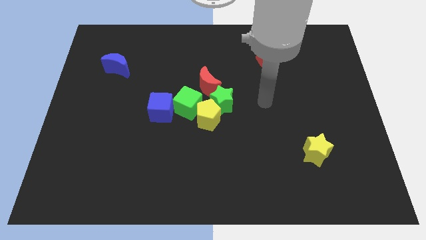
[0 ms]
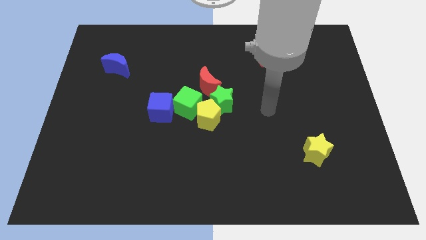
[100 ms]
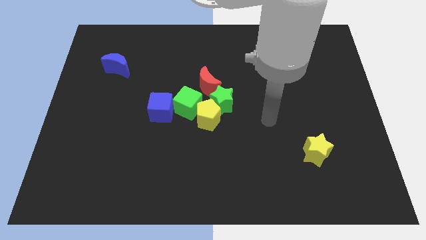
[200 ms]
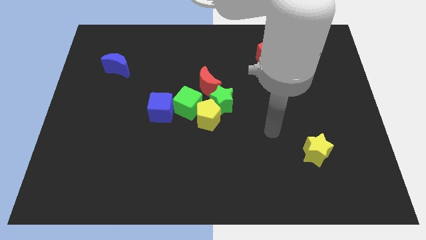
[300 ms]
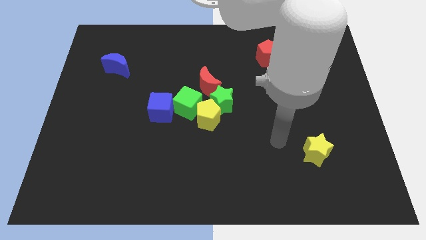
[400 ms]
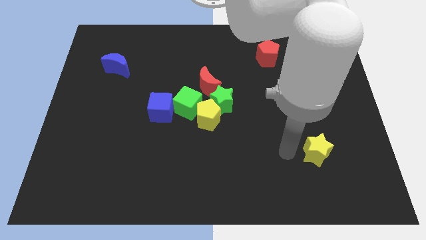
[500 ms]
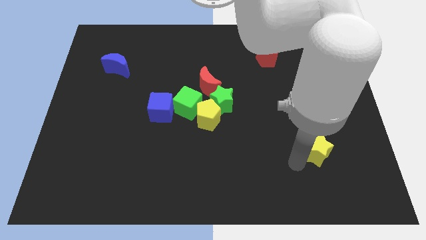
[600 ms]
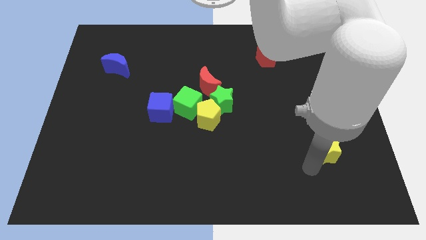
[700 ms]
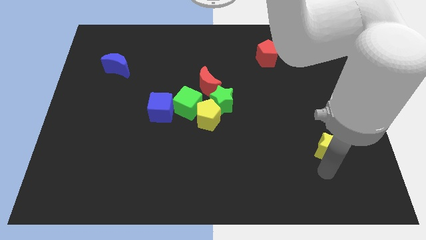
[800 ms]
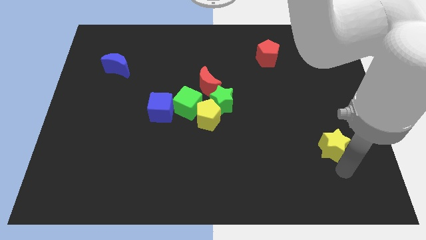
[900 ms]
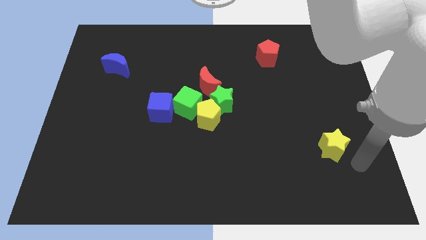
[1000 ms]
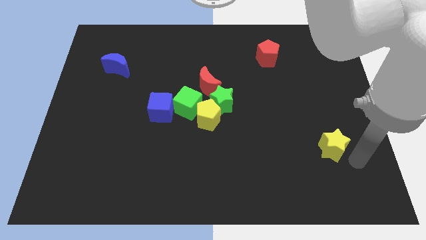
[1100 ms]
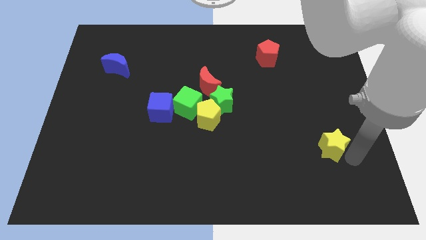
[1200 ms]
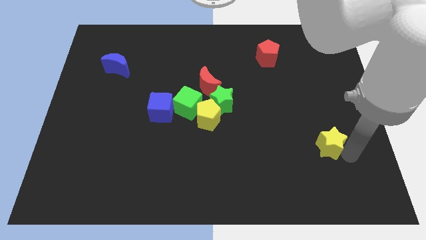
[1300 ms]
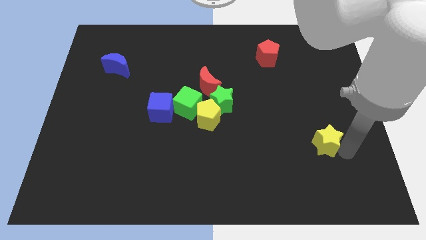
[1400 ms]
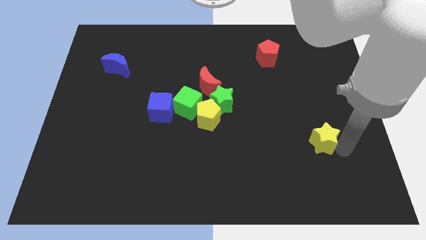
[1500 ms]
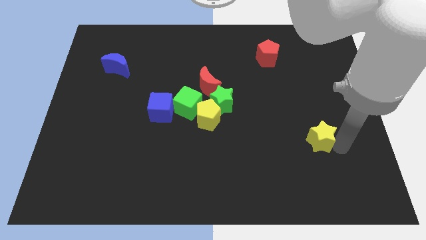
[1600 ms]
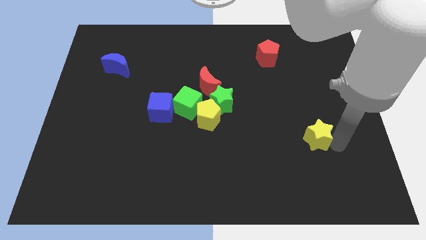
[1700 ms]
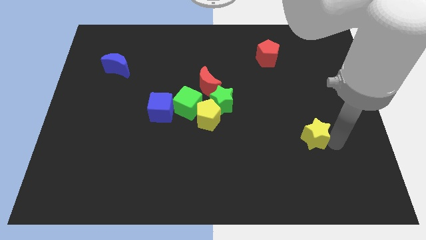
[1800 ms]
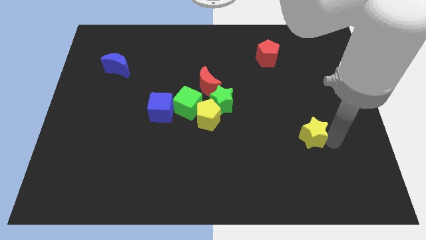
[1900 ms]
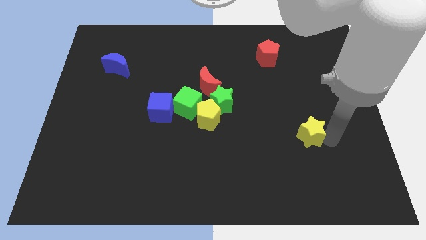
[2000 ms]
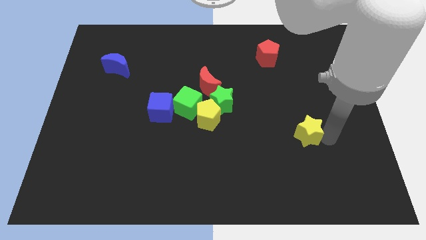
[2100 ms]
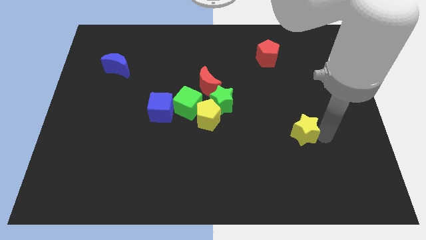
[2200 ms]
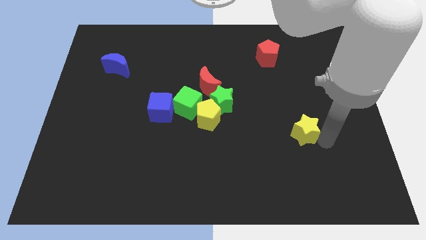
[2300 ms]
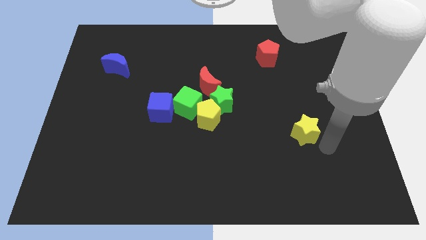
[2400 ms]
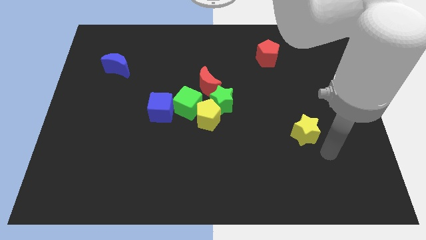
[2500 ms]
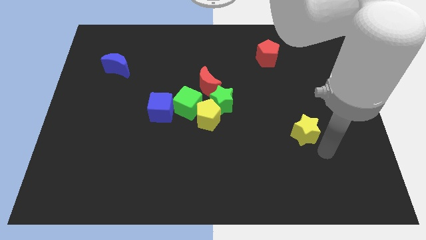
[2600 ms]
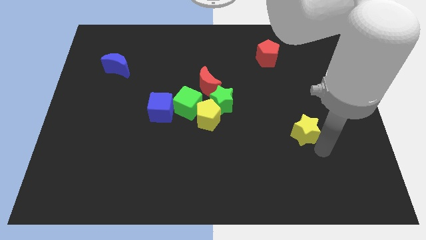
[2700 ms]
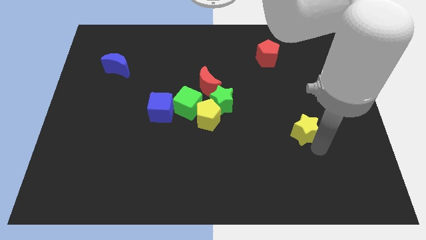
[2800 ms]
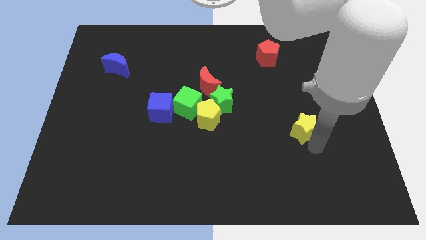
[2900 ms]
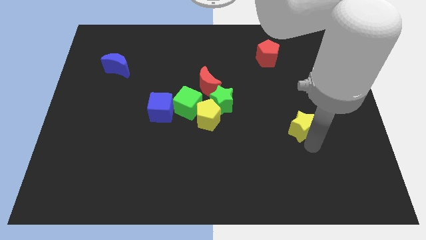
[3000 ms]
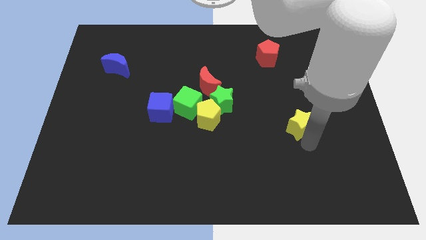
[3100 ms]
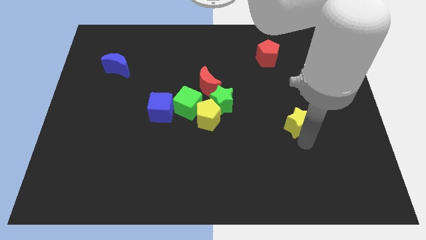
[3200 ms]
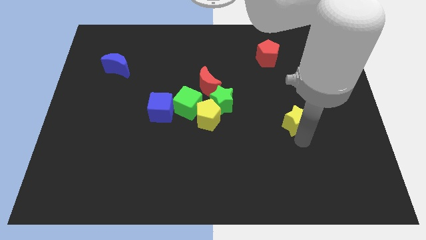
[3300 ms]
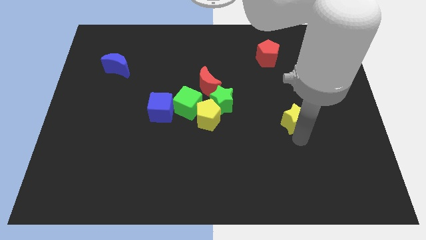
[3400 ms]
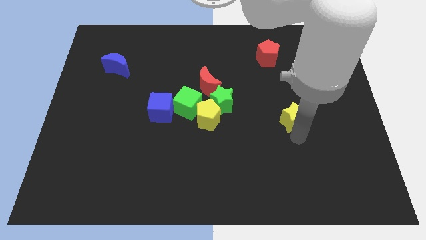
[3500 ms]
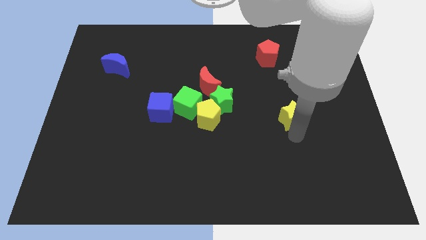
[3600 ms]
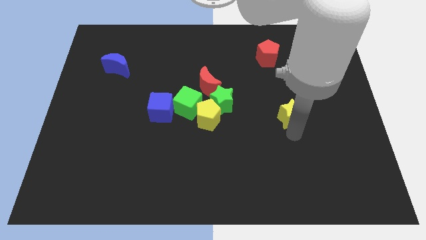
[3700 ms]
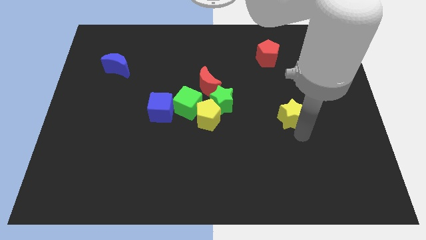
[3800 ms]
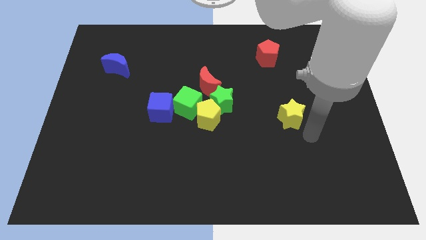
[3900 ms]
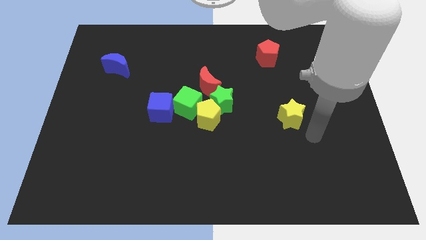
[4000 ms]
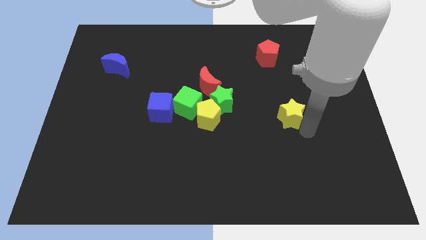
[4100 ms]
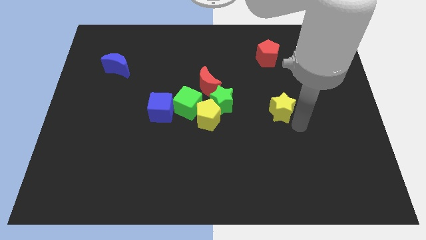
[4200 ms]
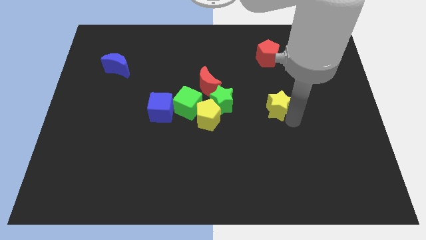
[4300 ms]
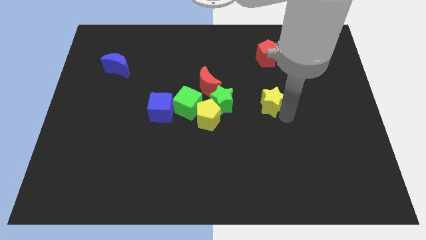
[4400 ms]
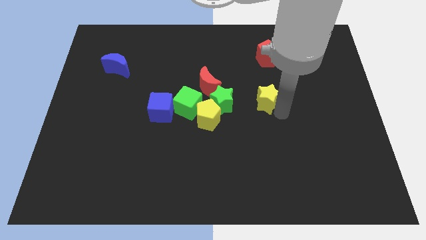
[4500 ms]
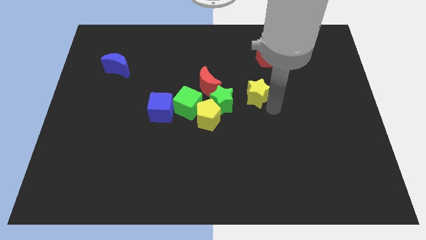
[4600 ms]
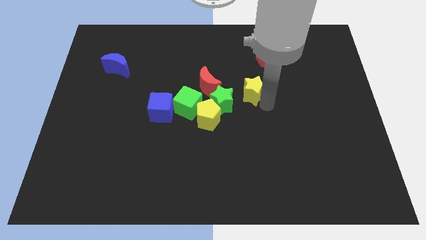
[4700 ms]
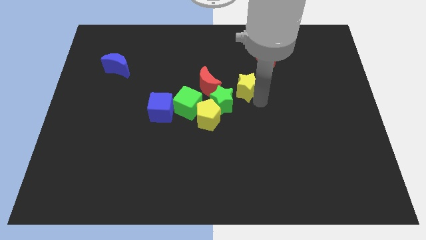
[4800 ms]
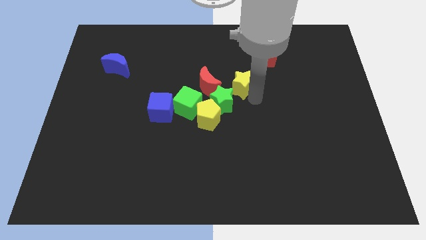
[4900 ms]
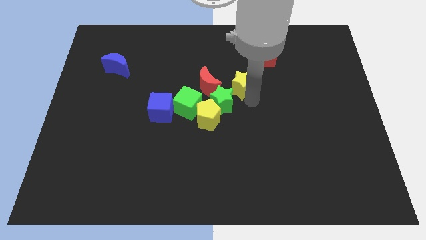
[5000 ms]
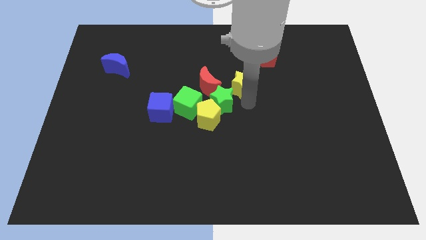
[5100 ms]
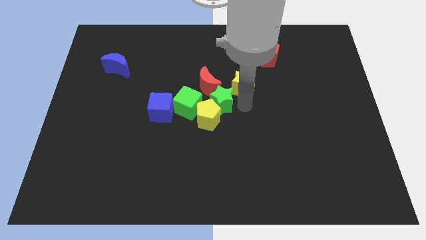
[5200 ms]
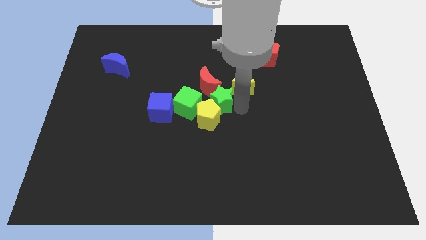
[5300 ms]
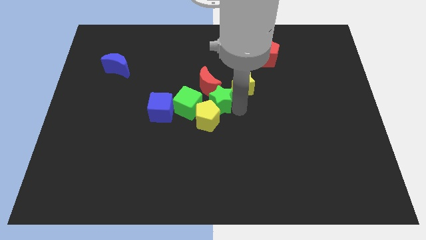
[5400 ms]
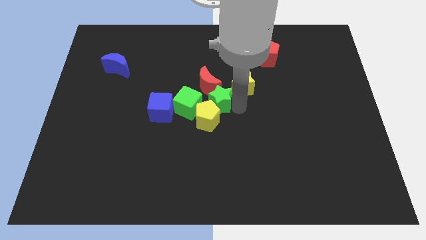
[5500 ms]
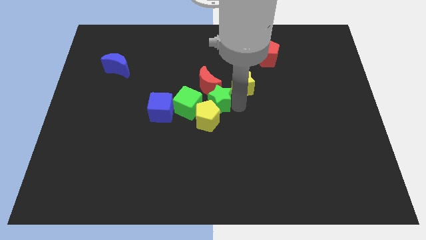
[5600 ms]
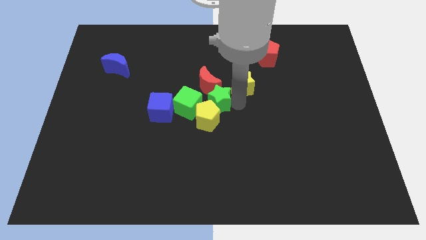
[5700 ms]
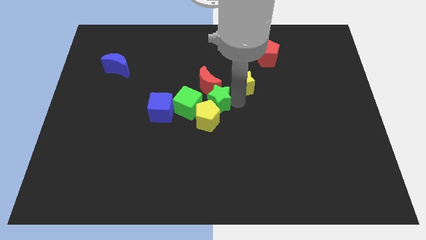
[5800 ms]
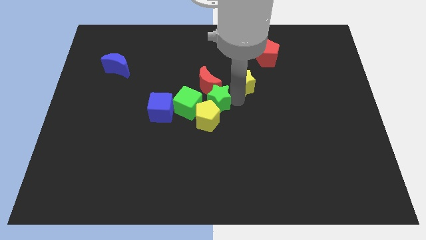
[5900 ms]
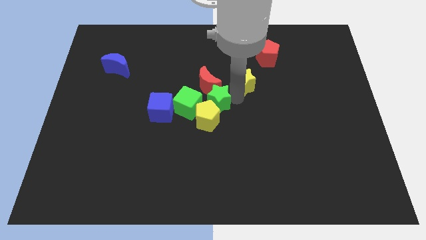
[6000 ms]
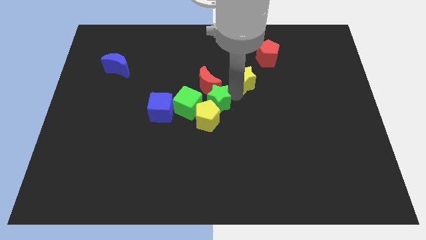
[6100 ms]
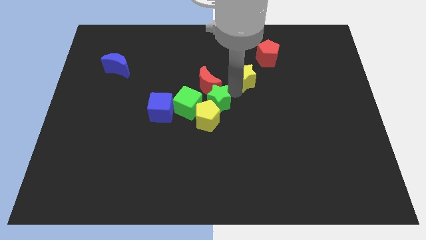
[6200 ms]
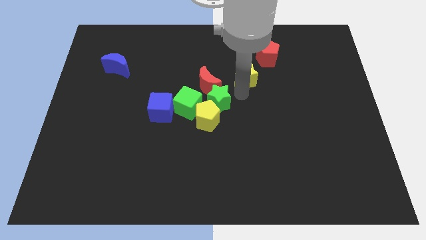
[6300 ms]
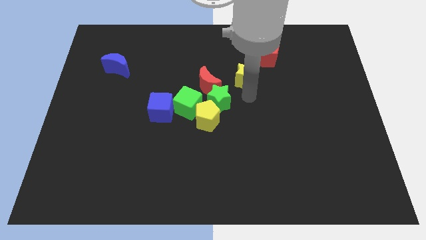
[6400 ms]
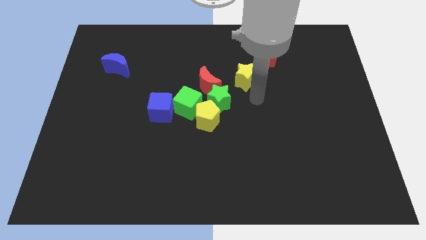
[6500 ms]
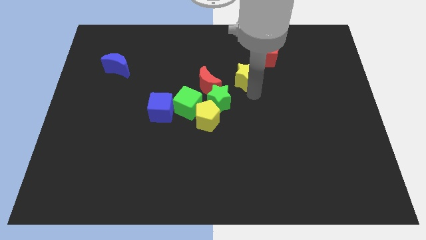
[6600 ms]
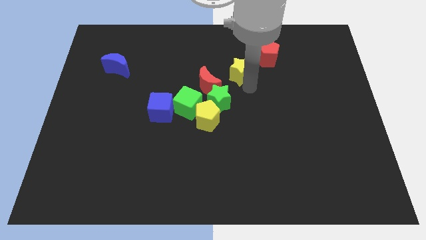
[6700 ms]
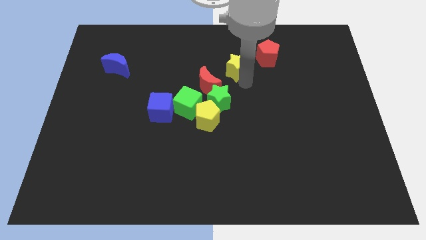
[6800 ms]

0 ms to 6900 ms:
push the yellow star just left of the red pentagon

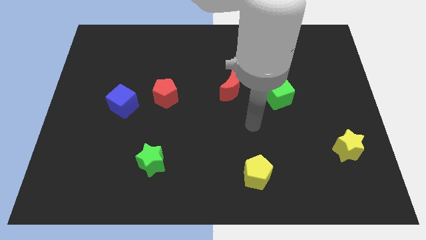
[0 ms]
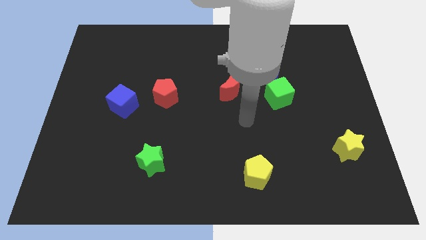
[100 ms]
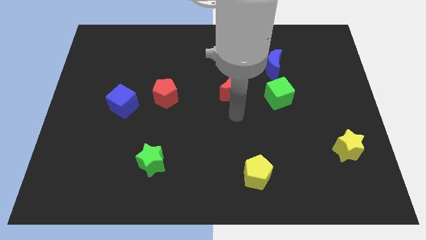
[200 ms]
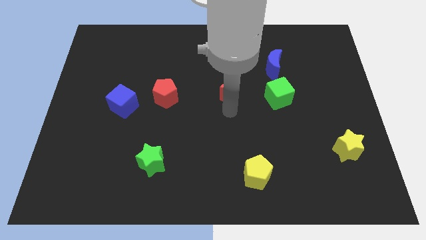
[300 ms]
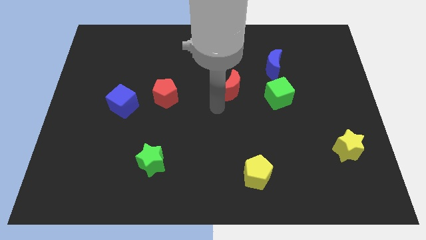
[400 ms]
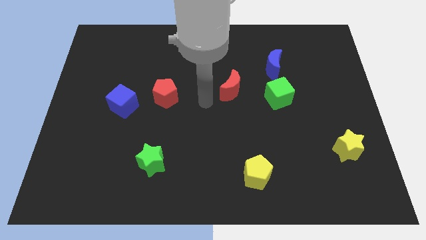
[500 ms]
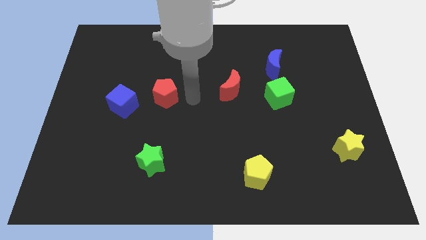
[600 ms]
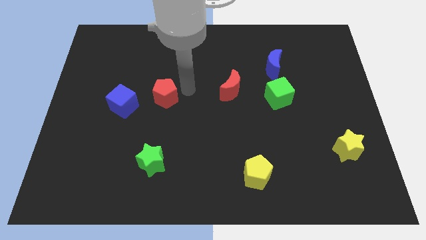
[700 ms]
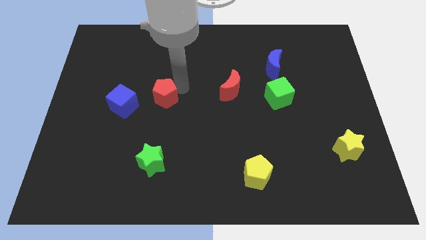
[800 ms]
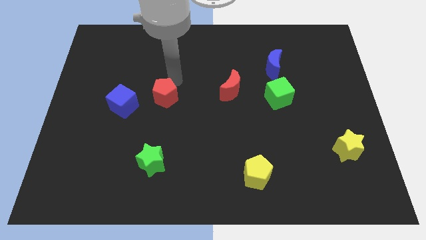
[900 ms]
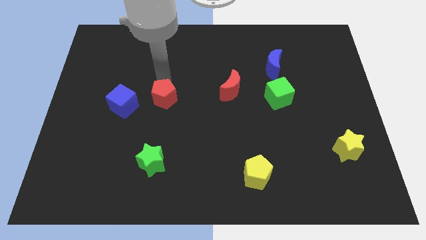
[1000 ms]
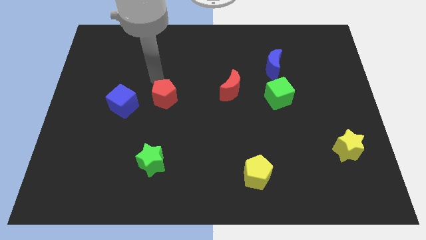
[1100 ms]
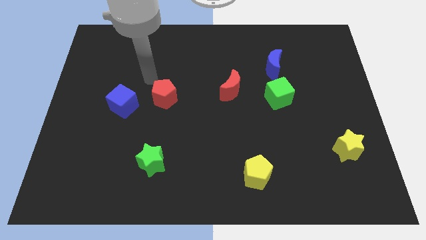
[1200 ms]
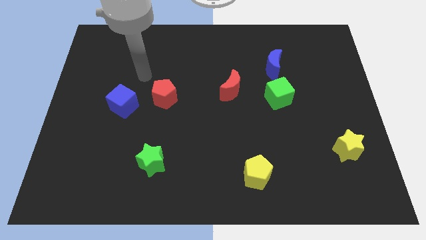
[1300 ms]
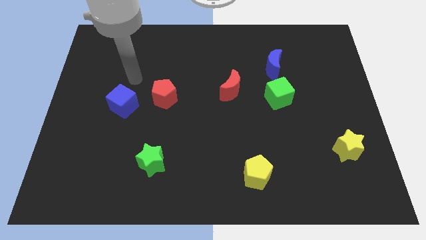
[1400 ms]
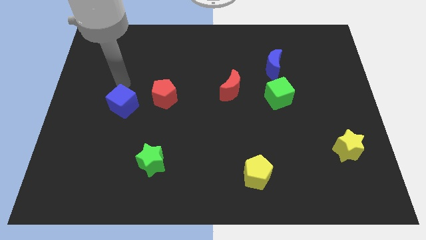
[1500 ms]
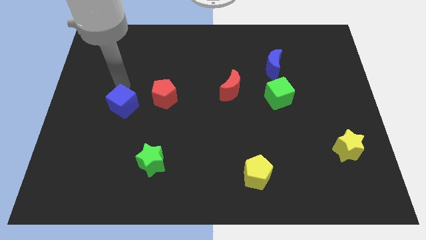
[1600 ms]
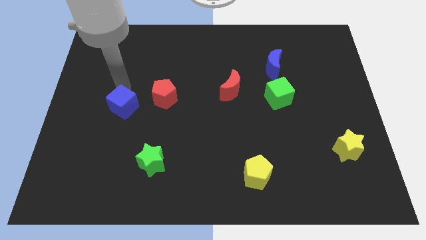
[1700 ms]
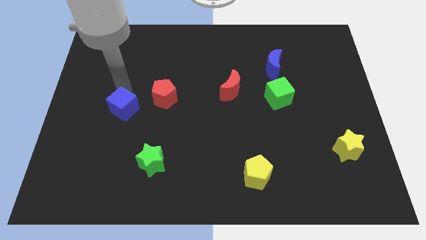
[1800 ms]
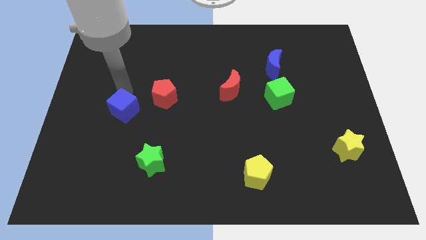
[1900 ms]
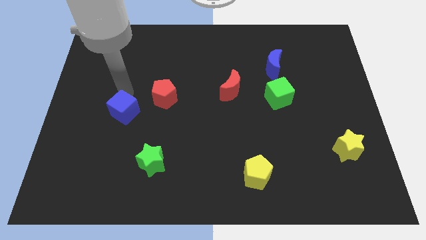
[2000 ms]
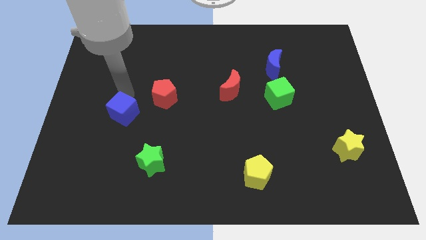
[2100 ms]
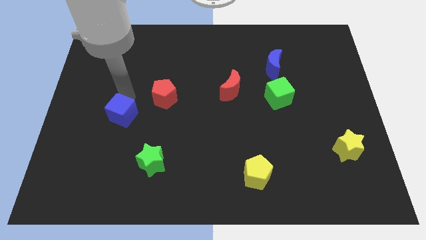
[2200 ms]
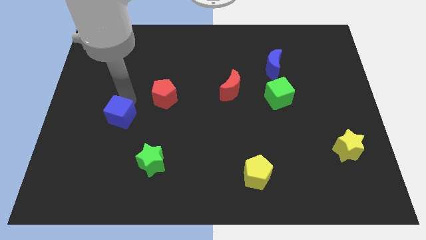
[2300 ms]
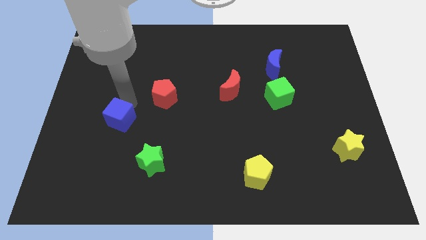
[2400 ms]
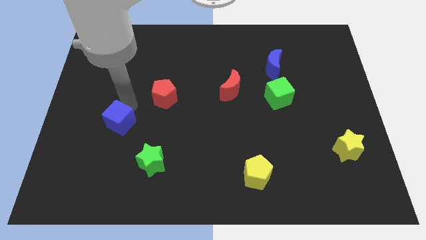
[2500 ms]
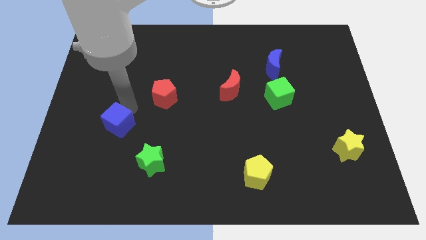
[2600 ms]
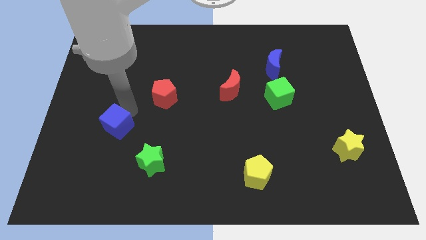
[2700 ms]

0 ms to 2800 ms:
put the blue cube diagonally up and to the left of the green star
